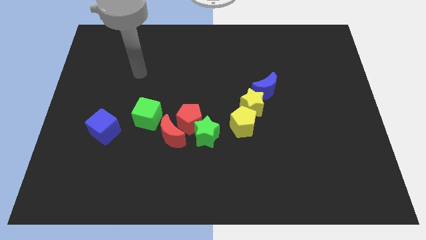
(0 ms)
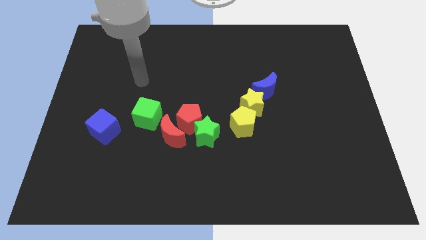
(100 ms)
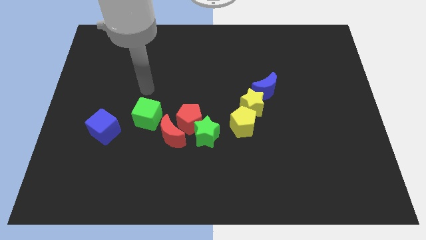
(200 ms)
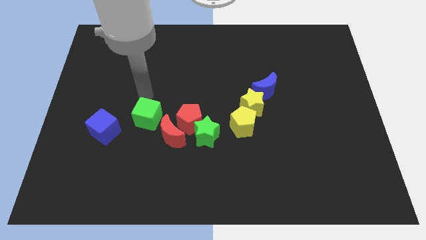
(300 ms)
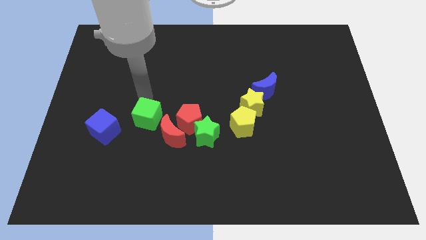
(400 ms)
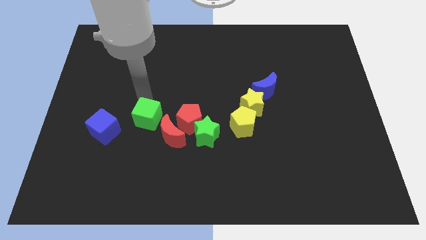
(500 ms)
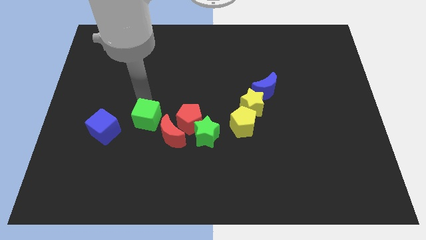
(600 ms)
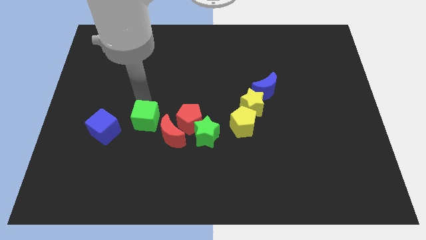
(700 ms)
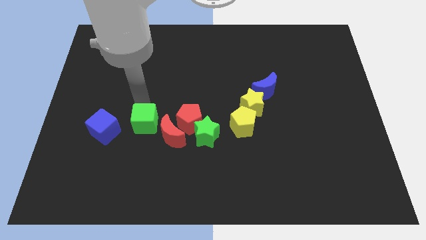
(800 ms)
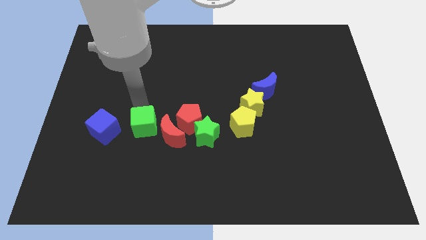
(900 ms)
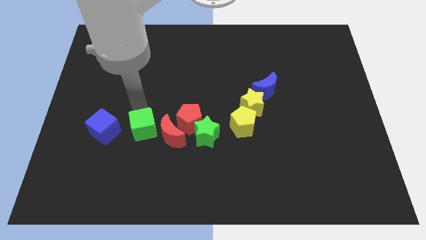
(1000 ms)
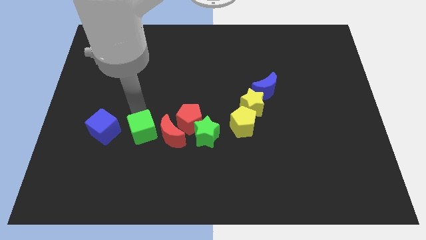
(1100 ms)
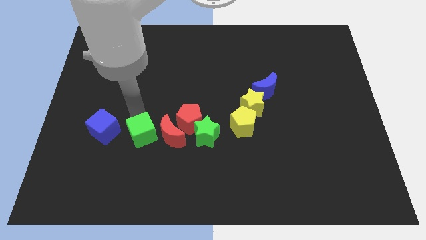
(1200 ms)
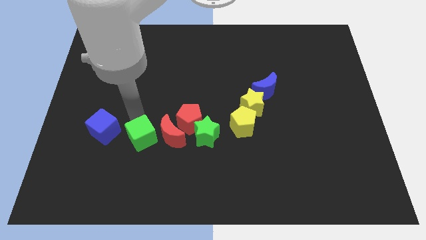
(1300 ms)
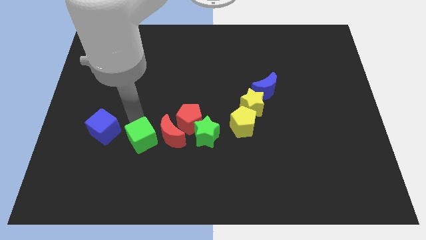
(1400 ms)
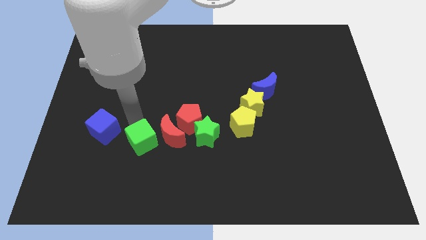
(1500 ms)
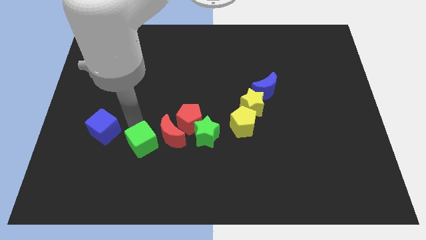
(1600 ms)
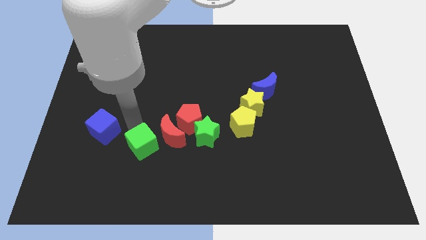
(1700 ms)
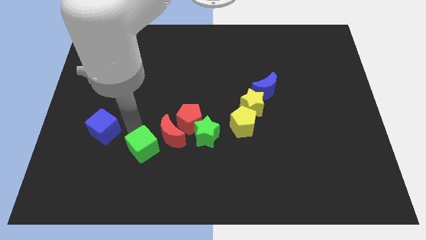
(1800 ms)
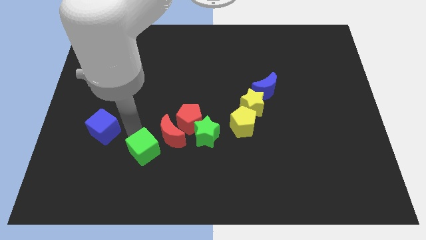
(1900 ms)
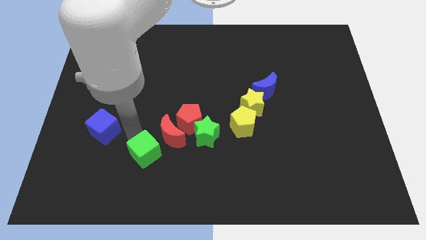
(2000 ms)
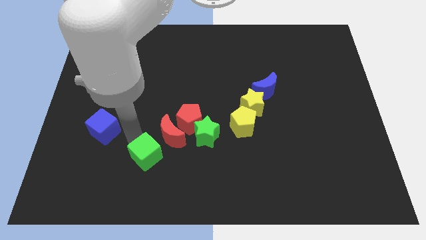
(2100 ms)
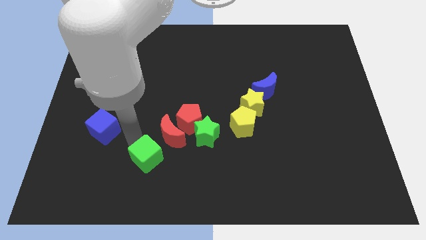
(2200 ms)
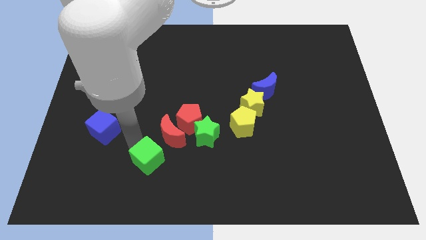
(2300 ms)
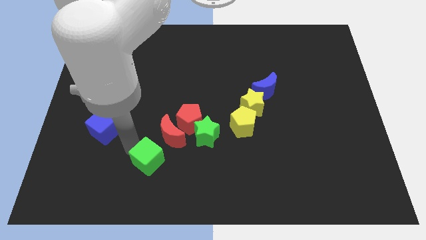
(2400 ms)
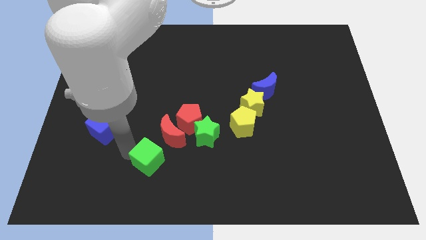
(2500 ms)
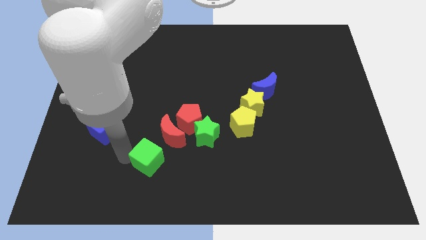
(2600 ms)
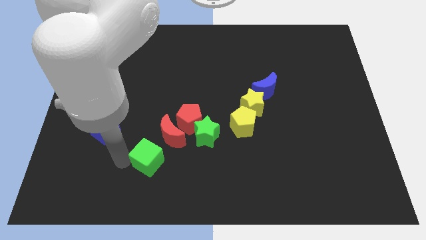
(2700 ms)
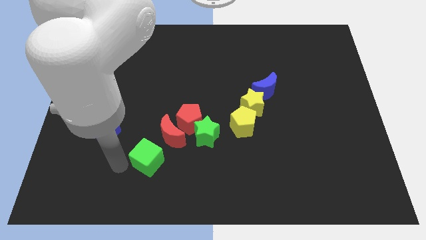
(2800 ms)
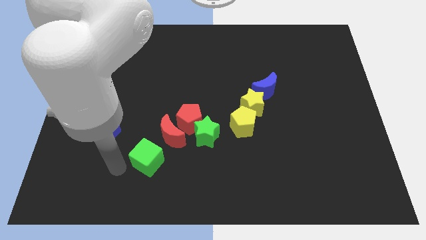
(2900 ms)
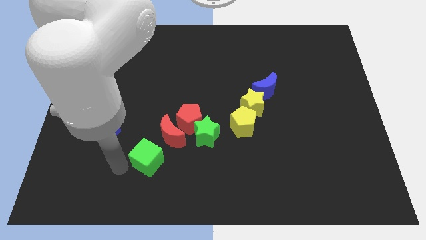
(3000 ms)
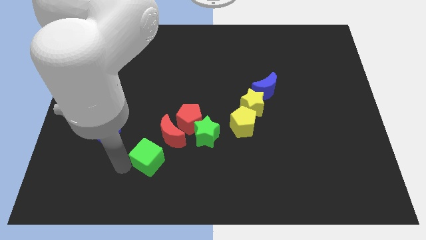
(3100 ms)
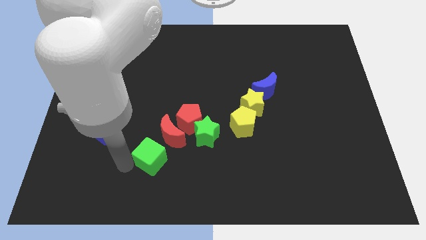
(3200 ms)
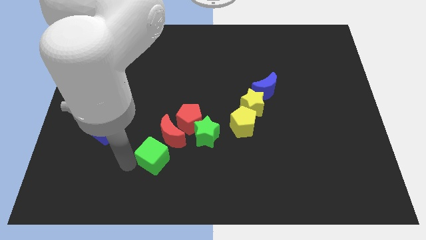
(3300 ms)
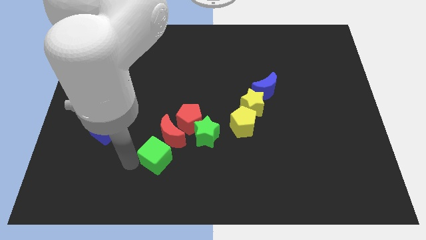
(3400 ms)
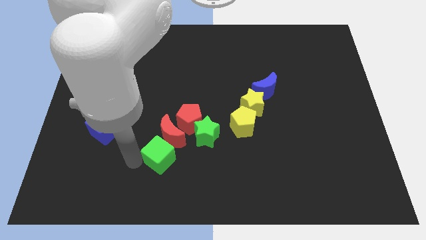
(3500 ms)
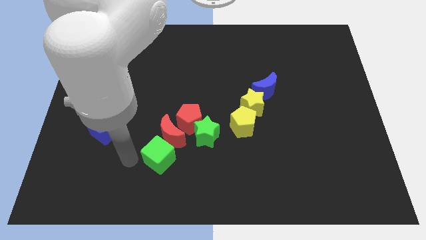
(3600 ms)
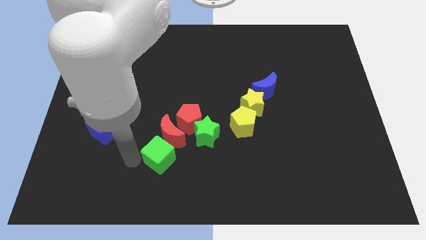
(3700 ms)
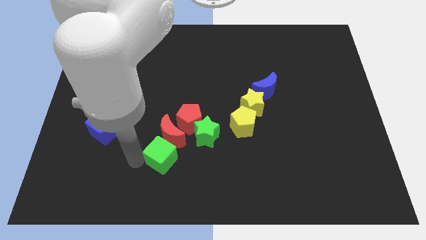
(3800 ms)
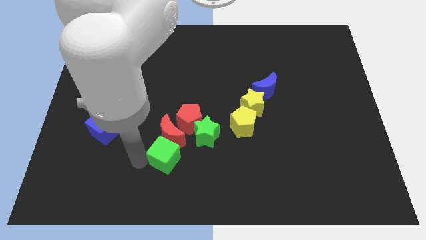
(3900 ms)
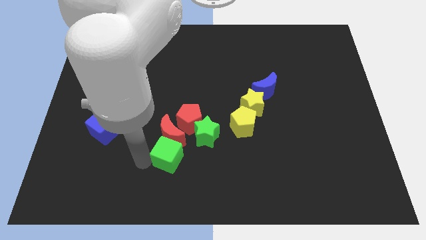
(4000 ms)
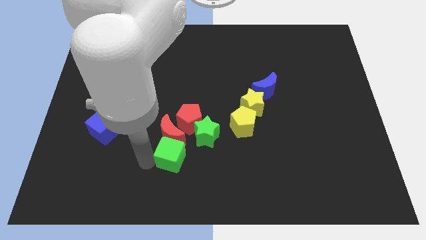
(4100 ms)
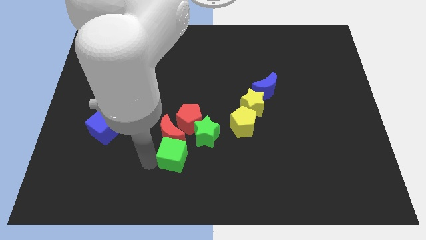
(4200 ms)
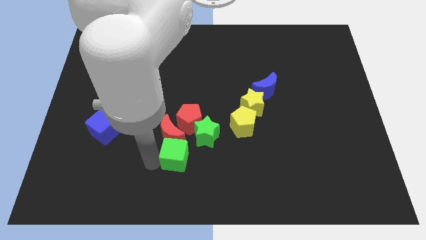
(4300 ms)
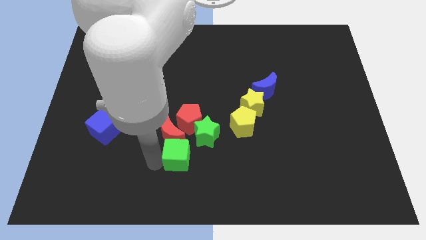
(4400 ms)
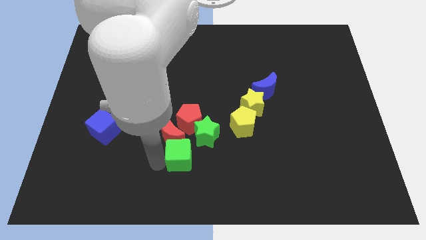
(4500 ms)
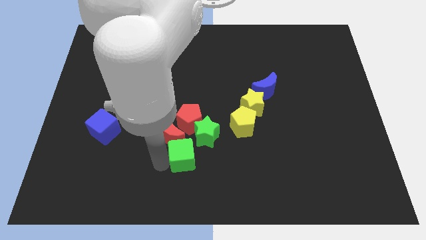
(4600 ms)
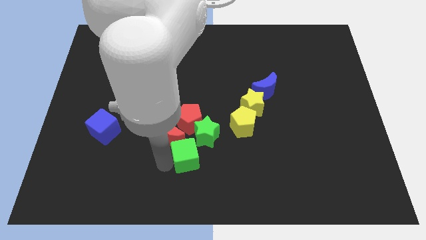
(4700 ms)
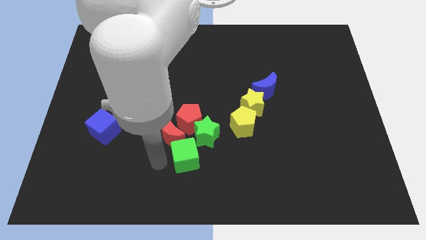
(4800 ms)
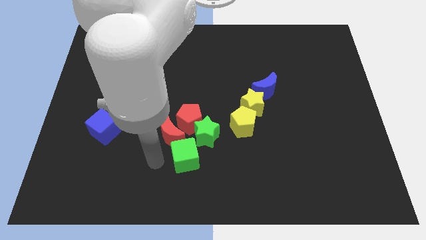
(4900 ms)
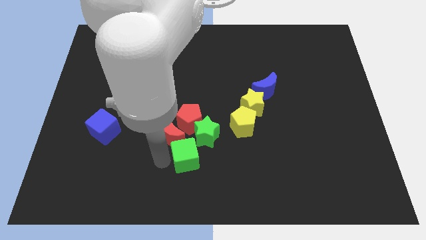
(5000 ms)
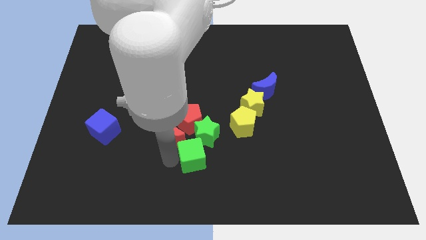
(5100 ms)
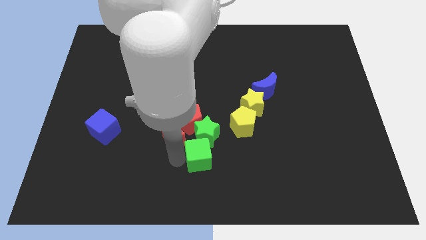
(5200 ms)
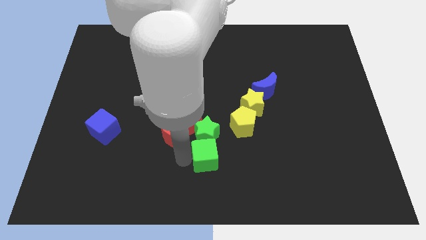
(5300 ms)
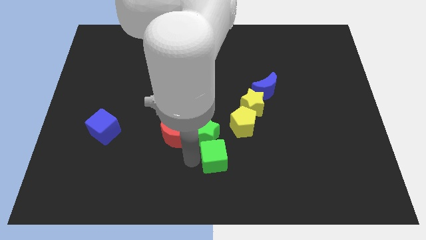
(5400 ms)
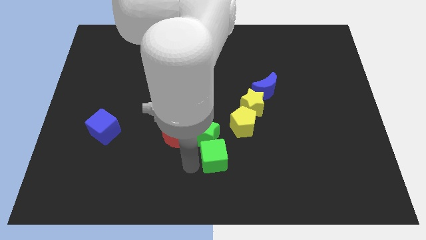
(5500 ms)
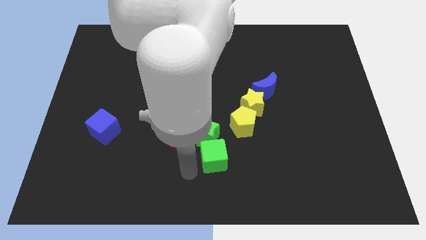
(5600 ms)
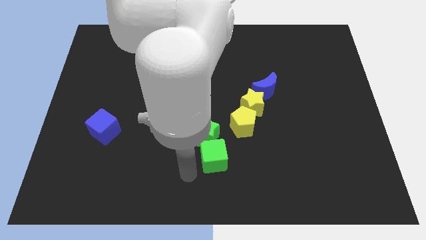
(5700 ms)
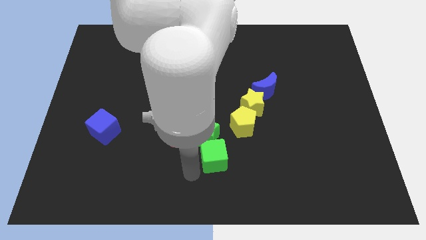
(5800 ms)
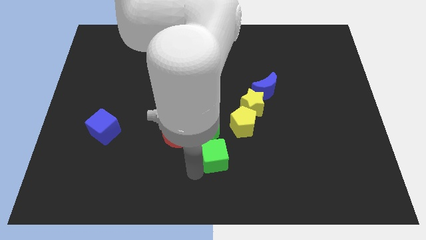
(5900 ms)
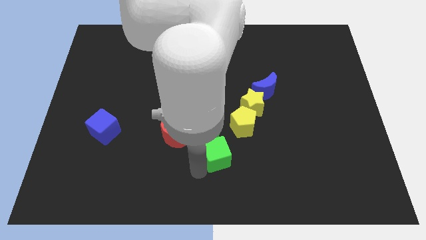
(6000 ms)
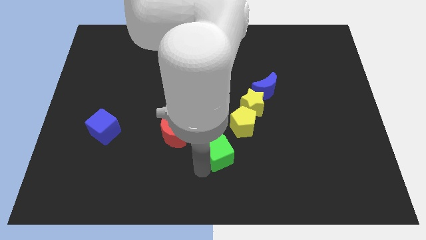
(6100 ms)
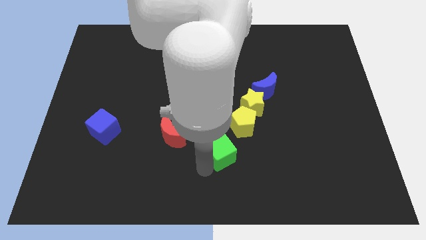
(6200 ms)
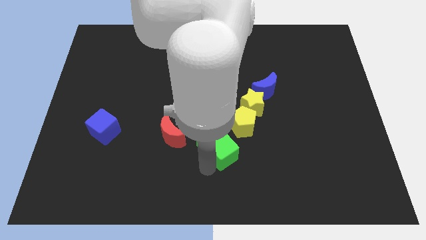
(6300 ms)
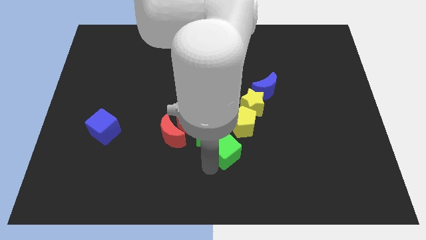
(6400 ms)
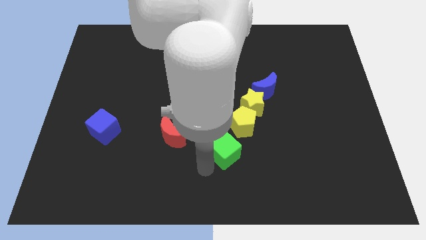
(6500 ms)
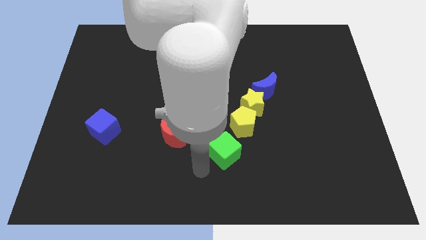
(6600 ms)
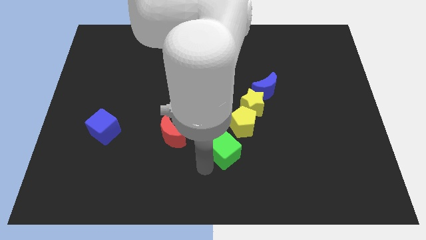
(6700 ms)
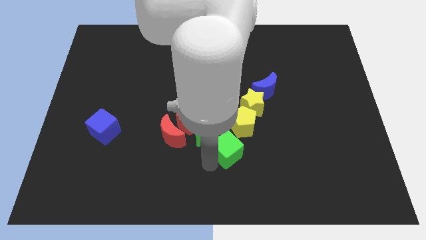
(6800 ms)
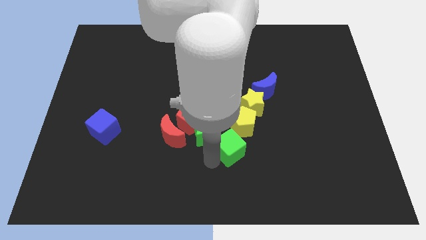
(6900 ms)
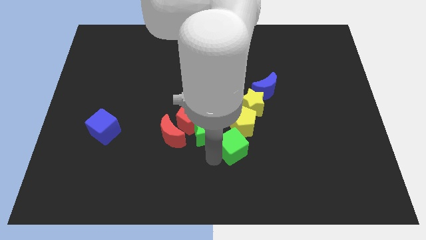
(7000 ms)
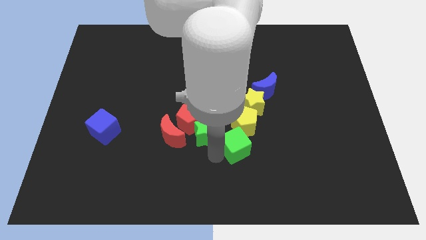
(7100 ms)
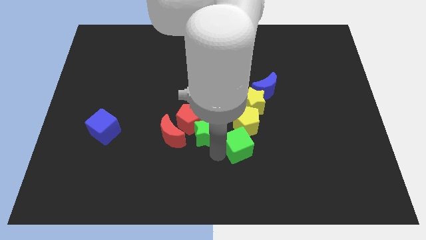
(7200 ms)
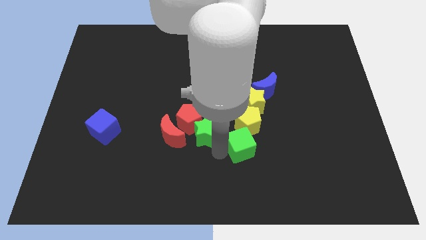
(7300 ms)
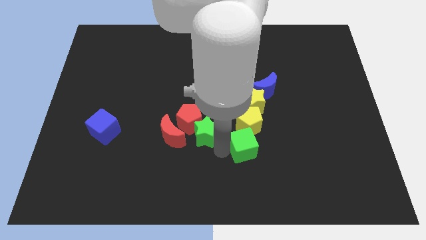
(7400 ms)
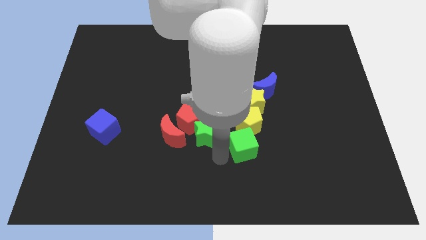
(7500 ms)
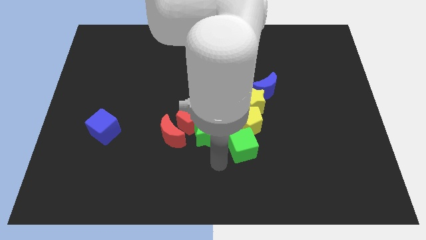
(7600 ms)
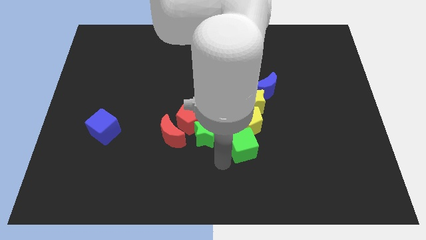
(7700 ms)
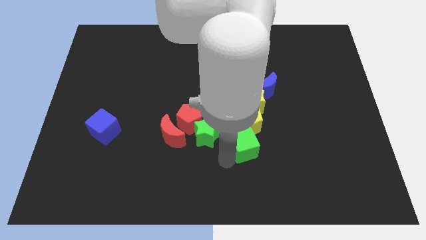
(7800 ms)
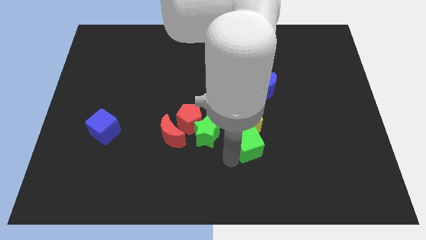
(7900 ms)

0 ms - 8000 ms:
slide the green cube right
